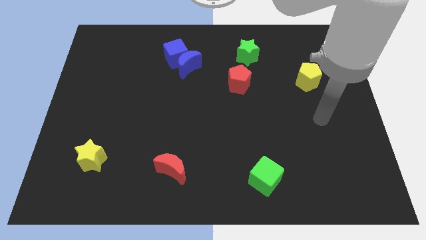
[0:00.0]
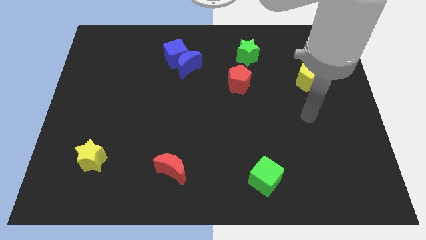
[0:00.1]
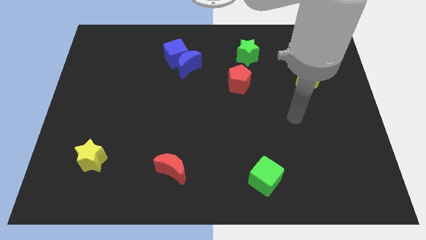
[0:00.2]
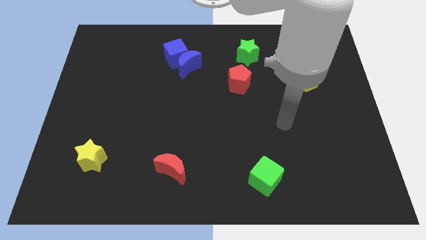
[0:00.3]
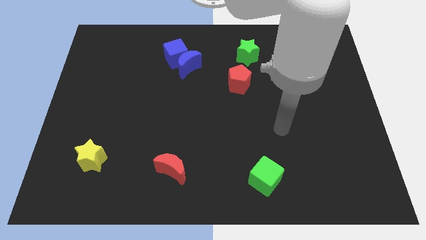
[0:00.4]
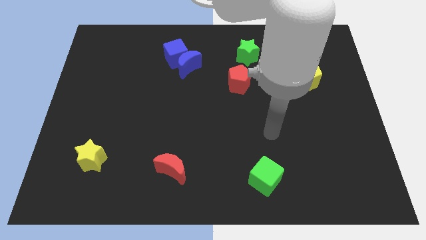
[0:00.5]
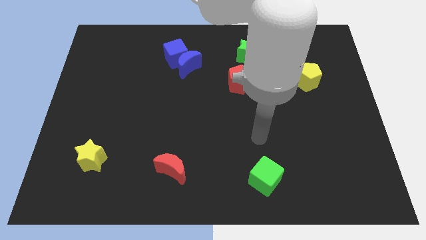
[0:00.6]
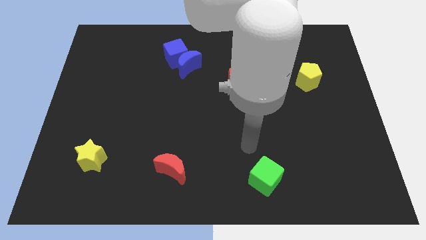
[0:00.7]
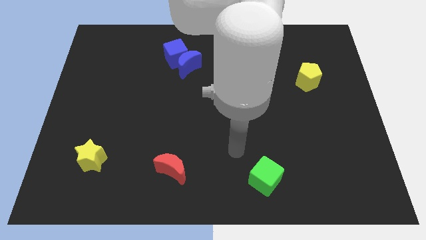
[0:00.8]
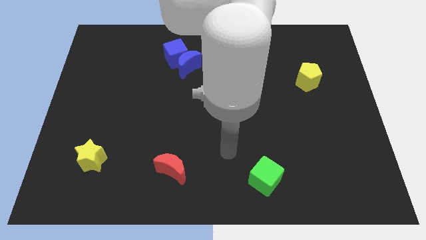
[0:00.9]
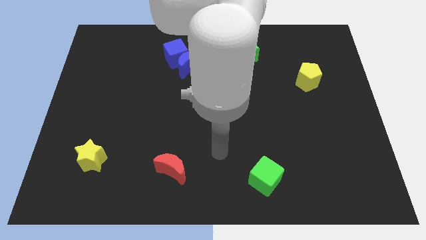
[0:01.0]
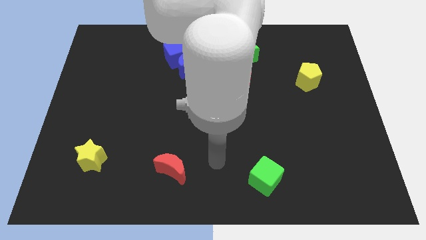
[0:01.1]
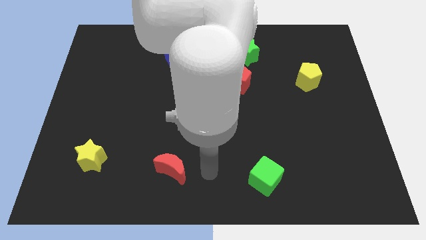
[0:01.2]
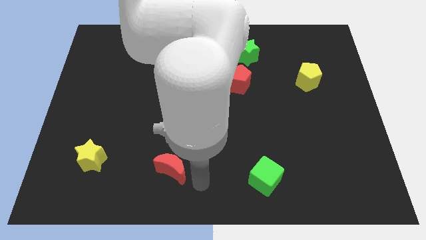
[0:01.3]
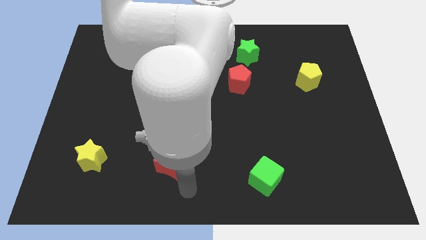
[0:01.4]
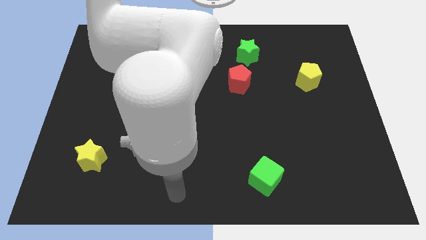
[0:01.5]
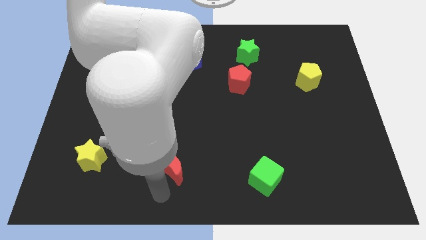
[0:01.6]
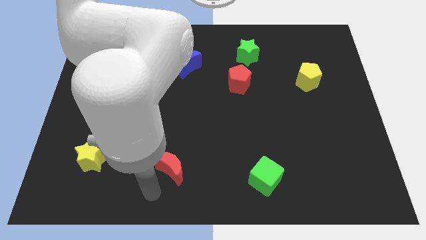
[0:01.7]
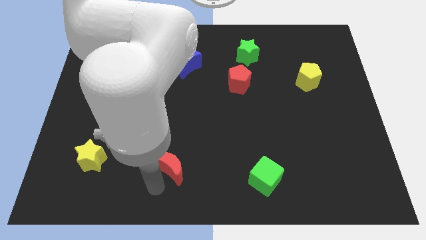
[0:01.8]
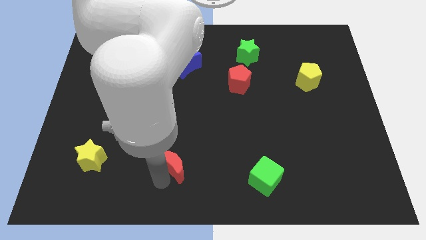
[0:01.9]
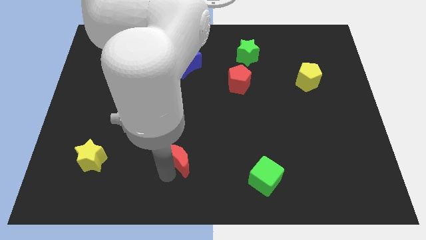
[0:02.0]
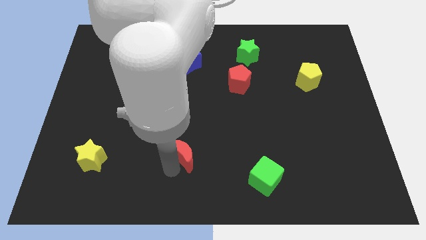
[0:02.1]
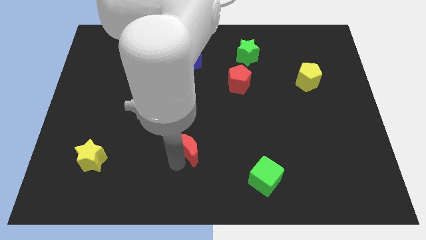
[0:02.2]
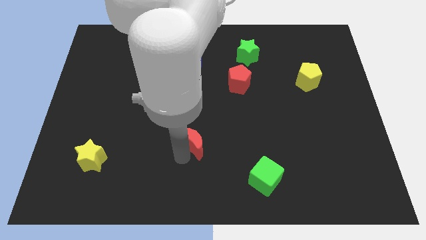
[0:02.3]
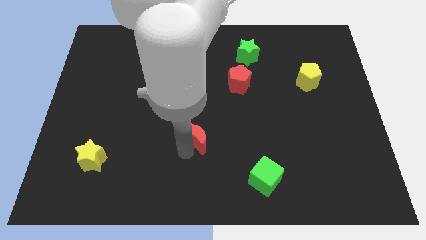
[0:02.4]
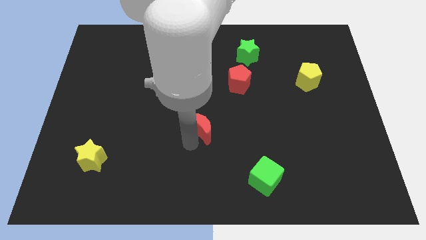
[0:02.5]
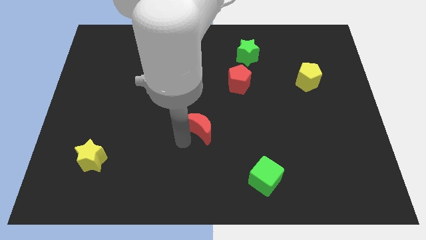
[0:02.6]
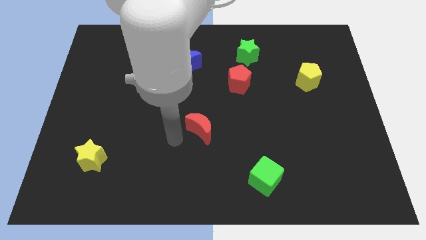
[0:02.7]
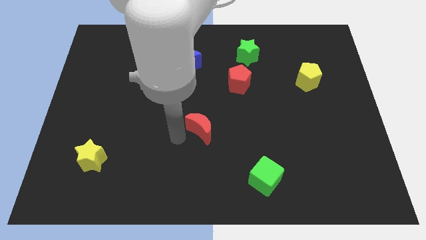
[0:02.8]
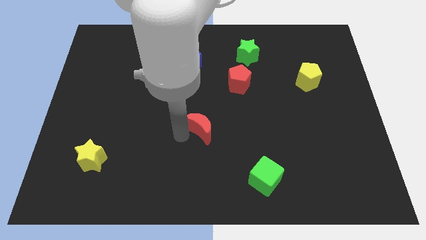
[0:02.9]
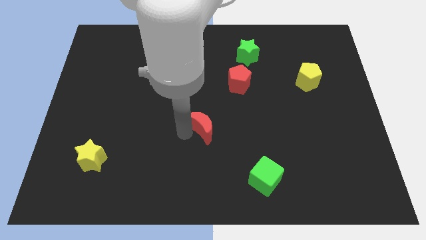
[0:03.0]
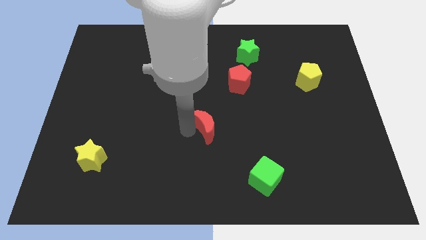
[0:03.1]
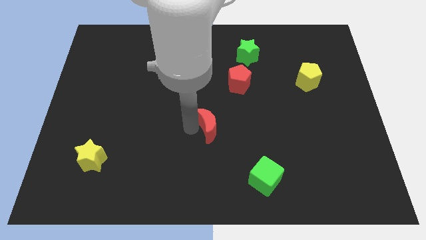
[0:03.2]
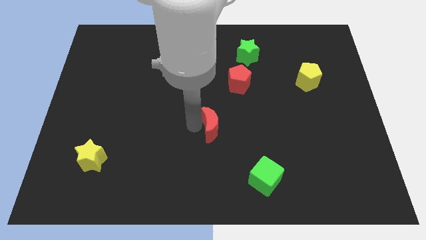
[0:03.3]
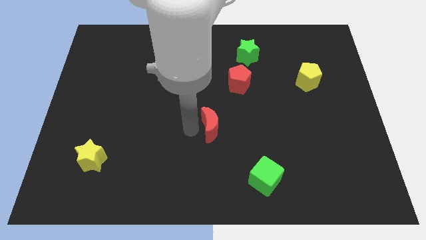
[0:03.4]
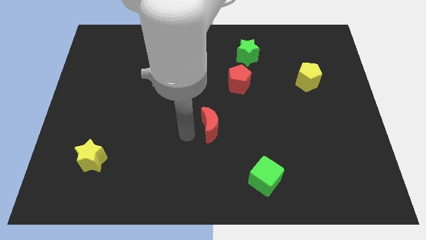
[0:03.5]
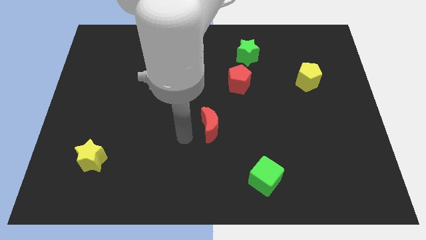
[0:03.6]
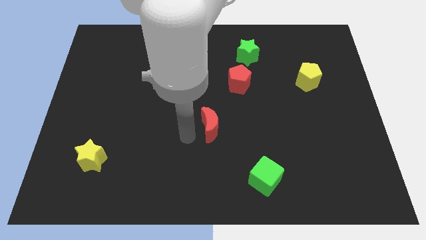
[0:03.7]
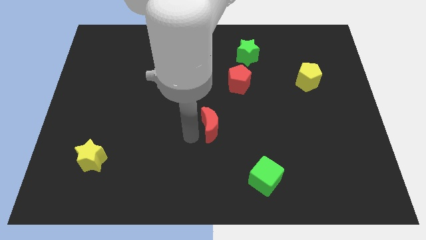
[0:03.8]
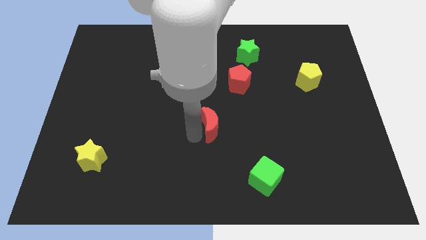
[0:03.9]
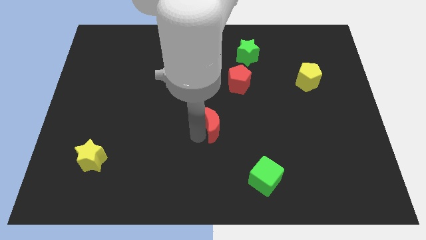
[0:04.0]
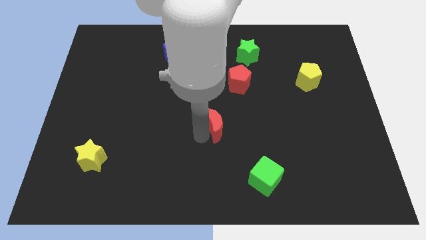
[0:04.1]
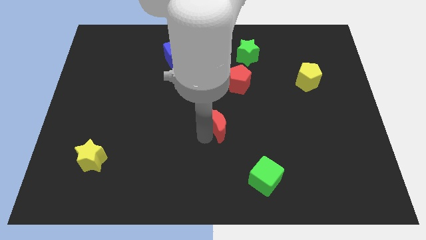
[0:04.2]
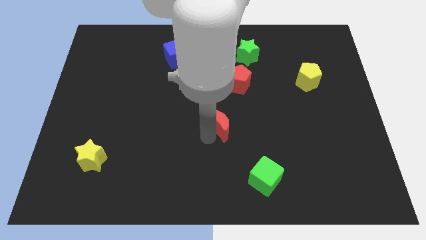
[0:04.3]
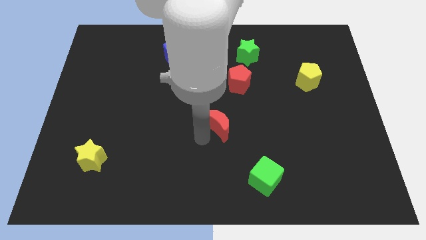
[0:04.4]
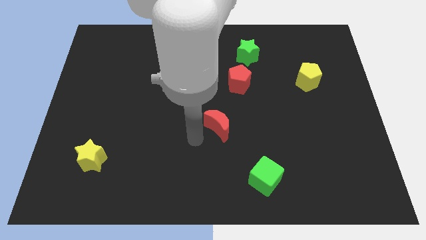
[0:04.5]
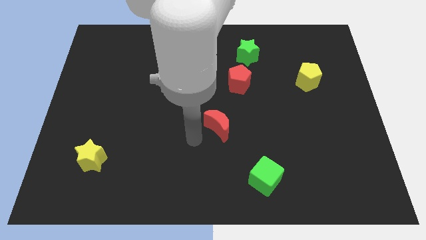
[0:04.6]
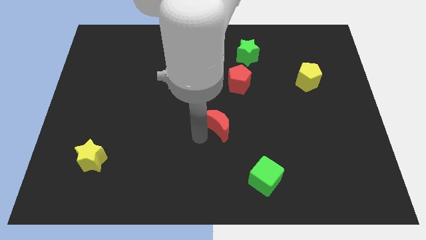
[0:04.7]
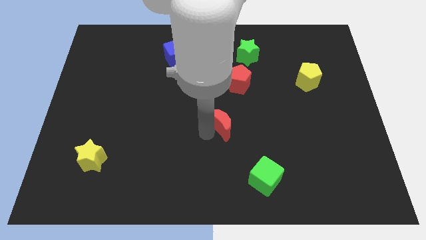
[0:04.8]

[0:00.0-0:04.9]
push the red moon below the red pentagon

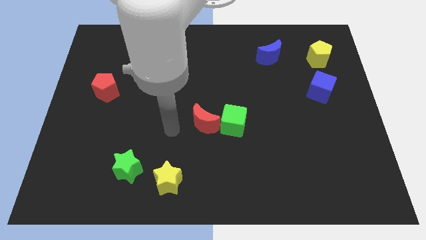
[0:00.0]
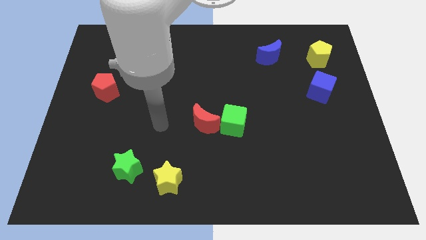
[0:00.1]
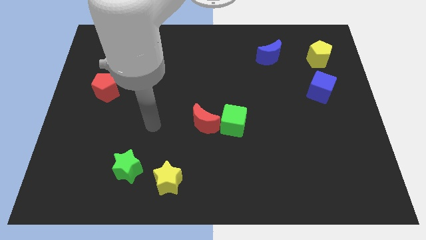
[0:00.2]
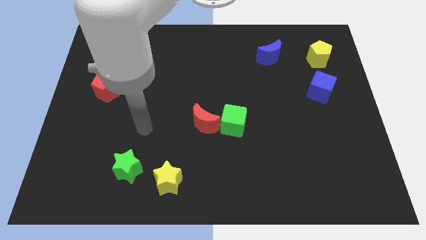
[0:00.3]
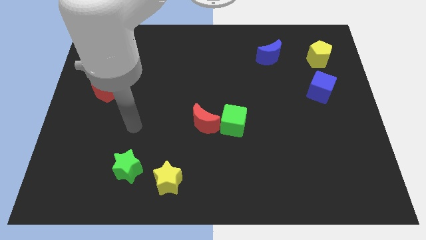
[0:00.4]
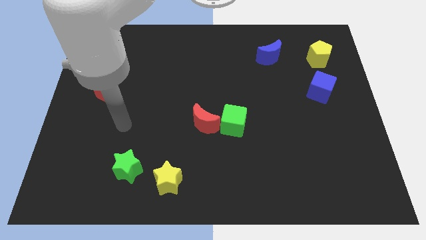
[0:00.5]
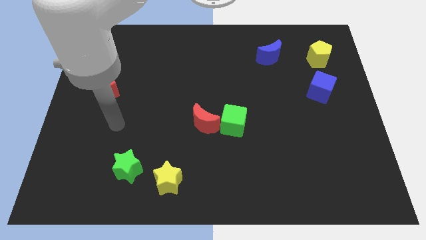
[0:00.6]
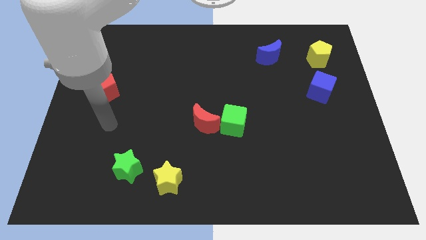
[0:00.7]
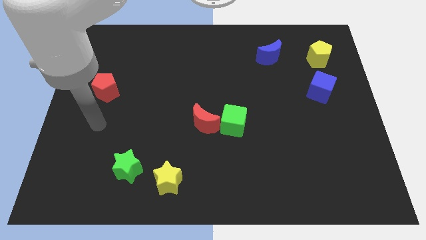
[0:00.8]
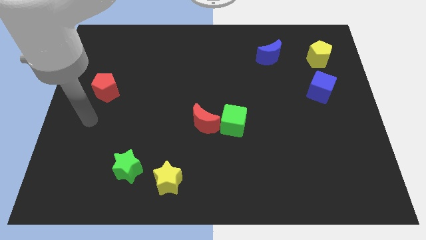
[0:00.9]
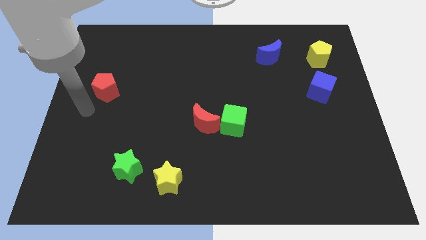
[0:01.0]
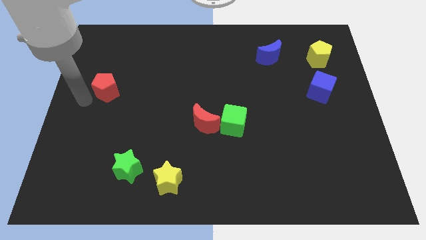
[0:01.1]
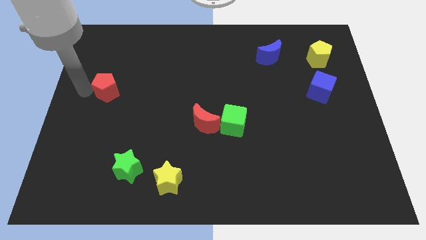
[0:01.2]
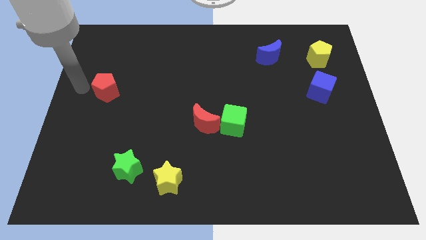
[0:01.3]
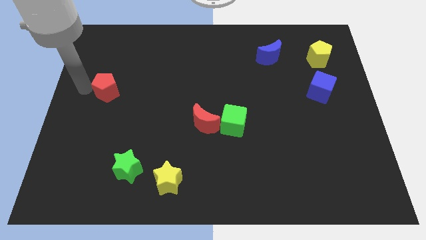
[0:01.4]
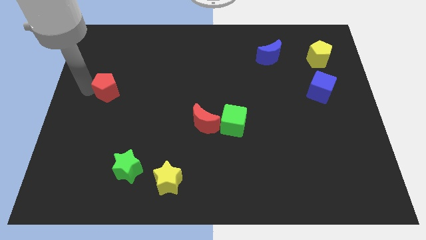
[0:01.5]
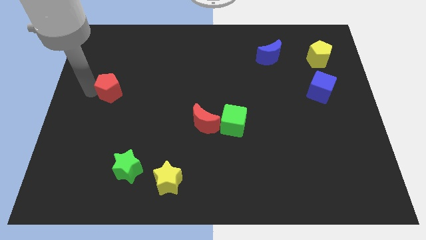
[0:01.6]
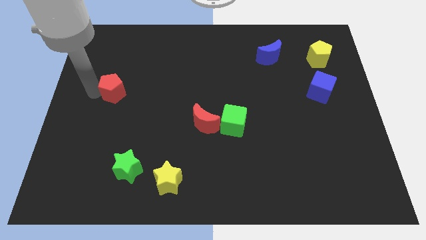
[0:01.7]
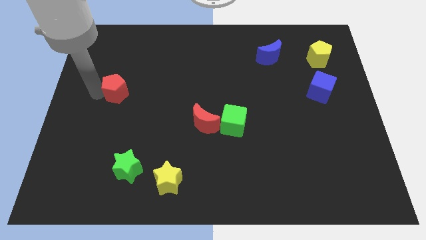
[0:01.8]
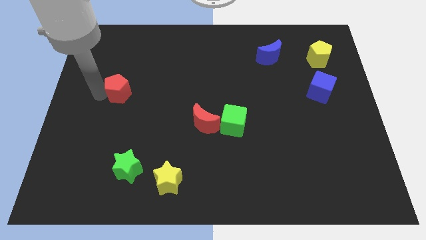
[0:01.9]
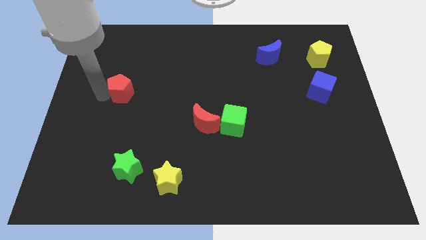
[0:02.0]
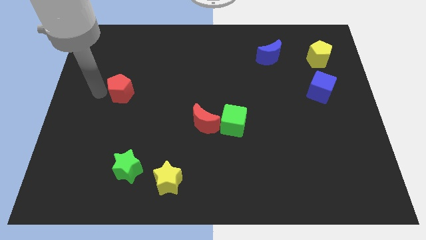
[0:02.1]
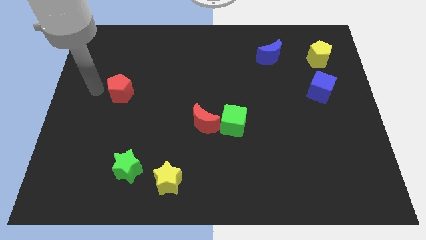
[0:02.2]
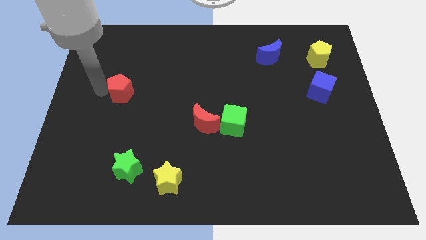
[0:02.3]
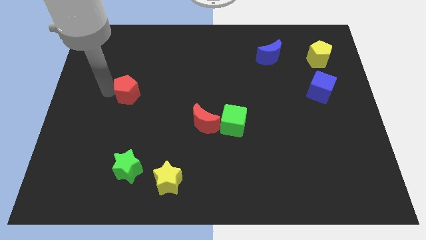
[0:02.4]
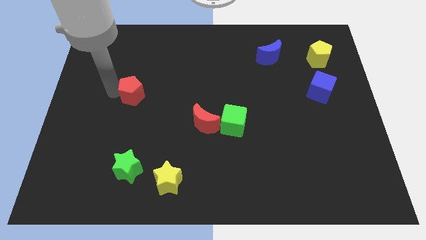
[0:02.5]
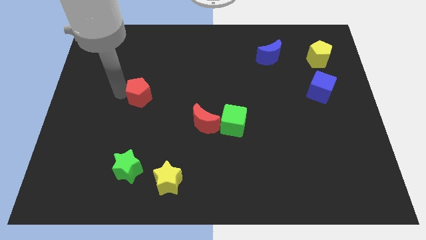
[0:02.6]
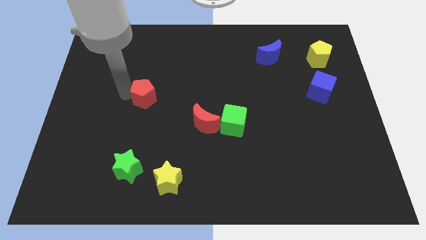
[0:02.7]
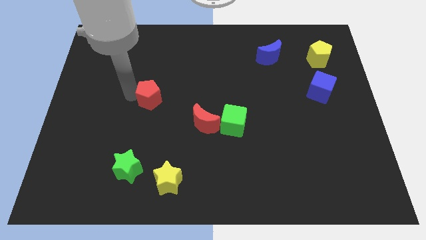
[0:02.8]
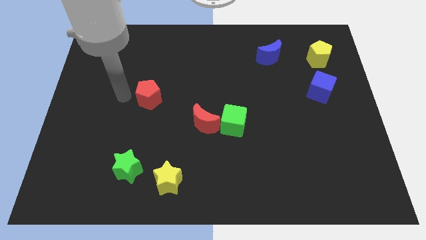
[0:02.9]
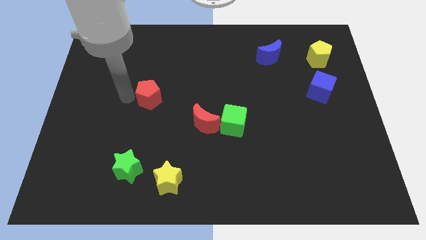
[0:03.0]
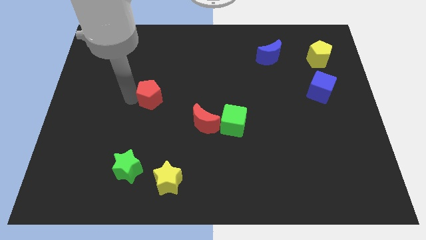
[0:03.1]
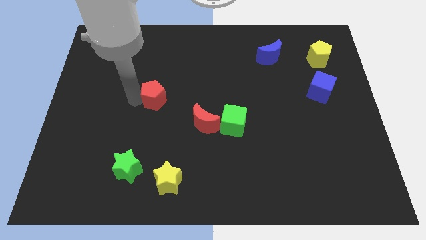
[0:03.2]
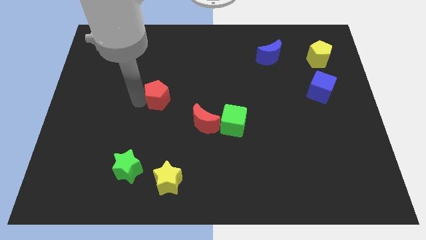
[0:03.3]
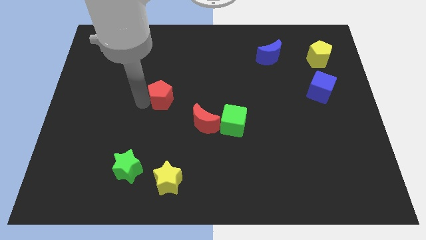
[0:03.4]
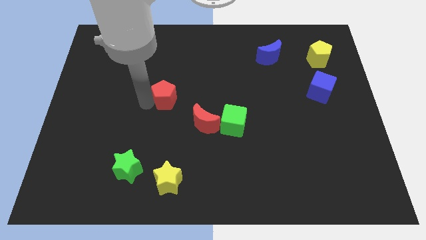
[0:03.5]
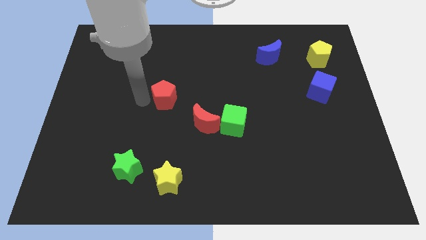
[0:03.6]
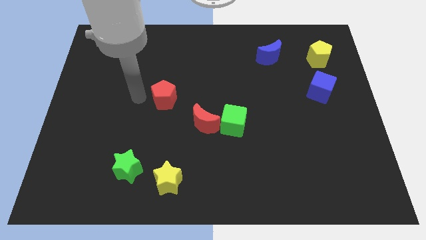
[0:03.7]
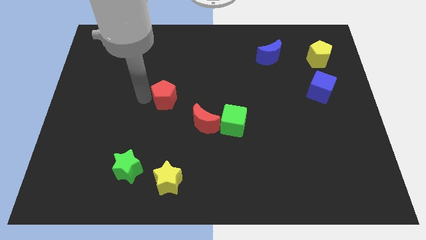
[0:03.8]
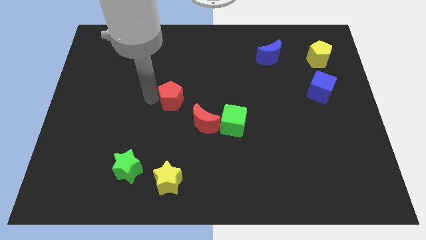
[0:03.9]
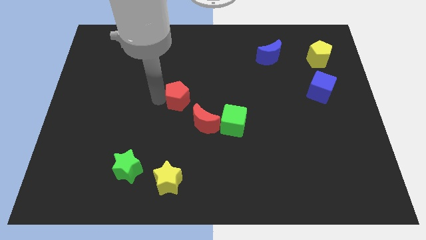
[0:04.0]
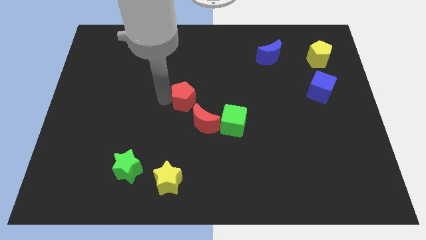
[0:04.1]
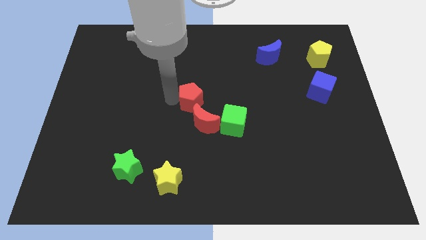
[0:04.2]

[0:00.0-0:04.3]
put the red pentagon diagonally up and to the left of the green cube
